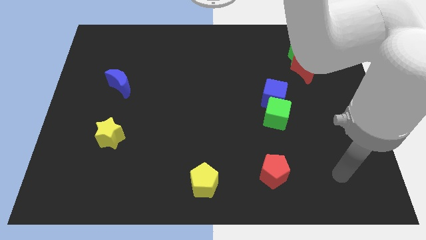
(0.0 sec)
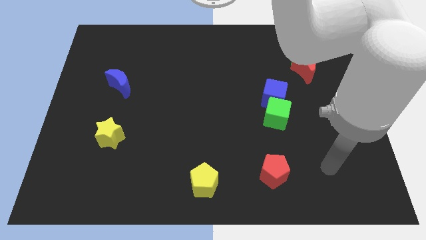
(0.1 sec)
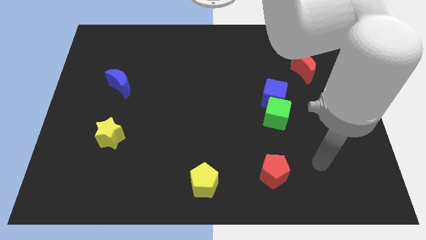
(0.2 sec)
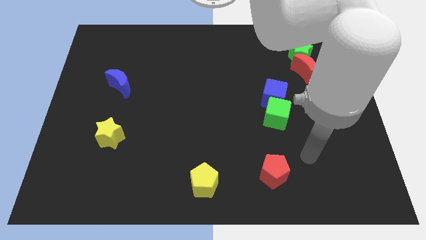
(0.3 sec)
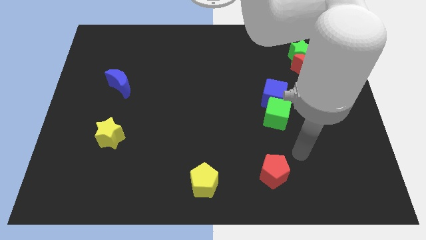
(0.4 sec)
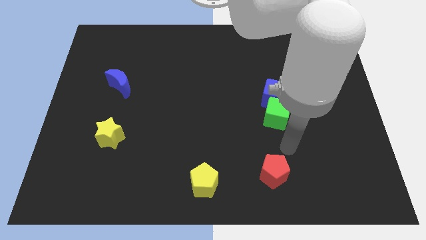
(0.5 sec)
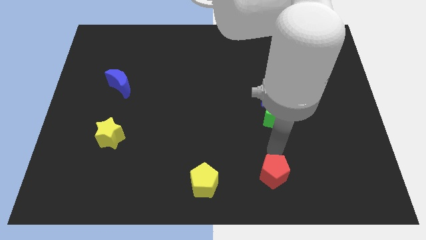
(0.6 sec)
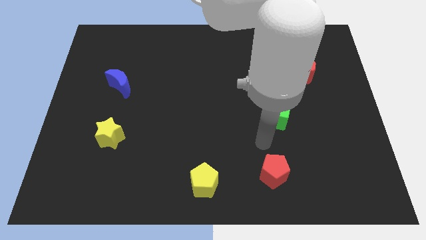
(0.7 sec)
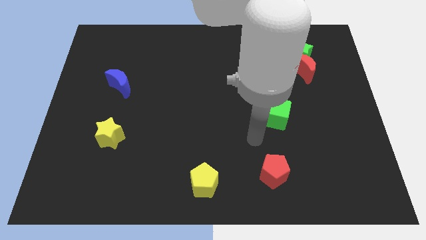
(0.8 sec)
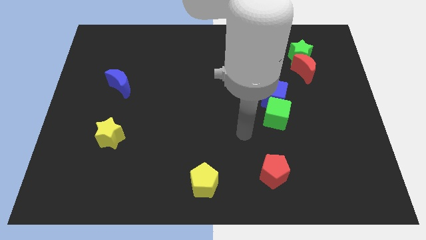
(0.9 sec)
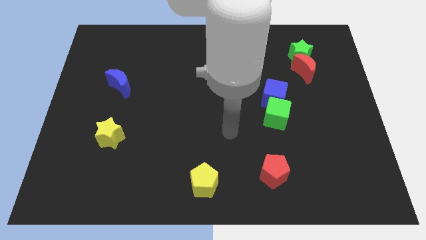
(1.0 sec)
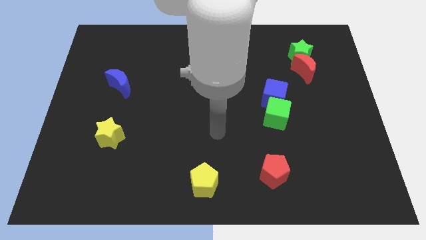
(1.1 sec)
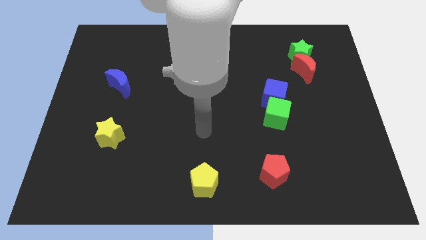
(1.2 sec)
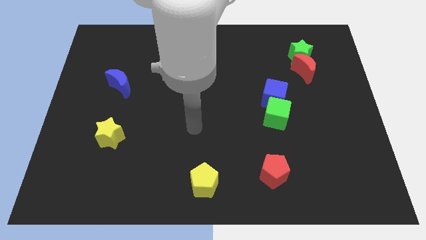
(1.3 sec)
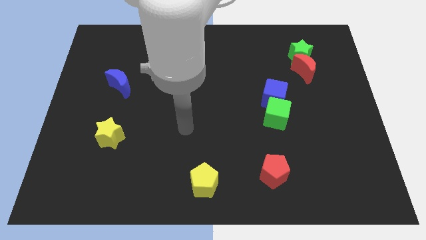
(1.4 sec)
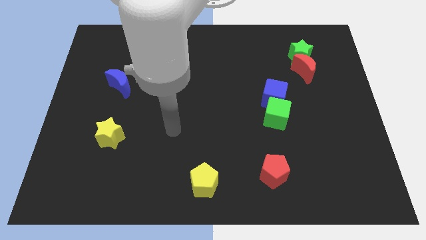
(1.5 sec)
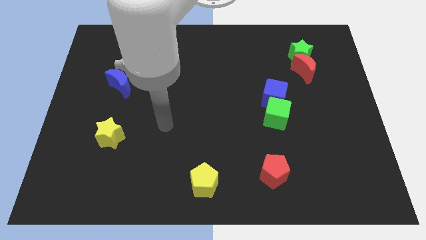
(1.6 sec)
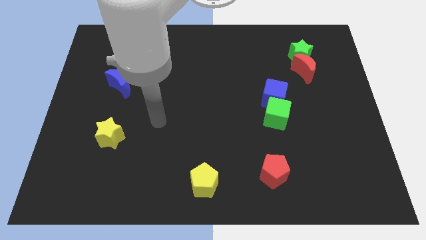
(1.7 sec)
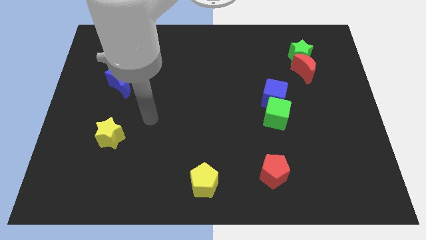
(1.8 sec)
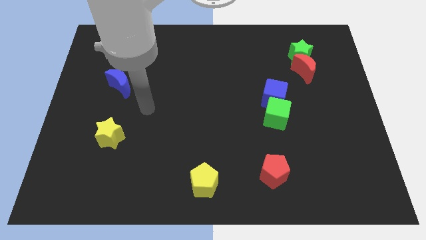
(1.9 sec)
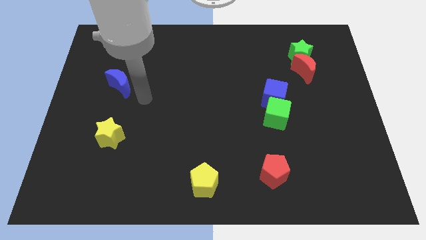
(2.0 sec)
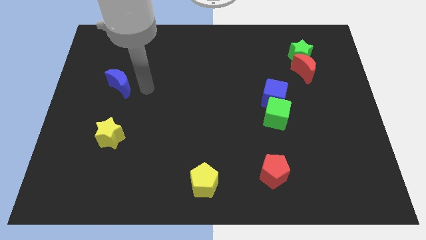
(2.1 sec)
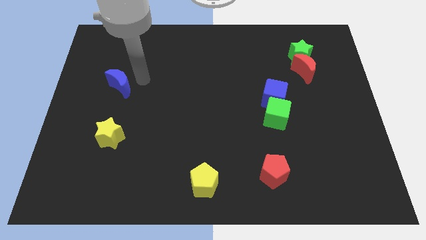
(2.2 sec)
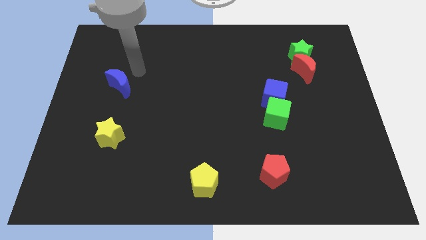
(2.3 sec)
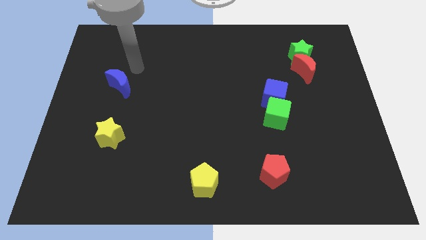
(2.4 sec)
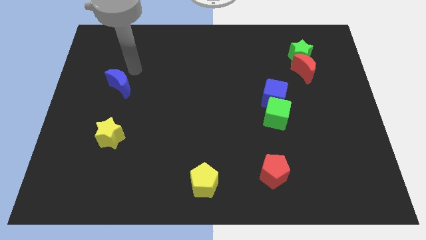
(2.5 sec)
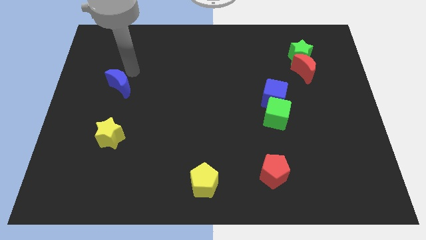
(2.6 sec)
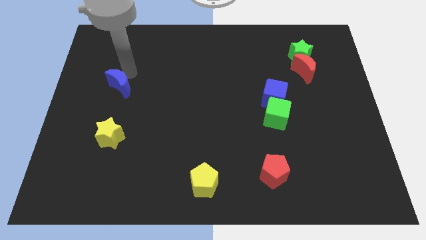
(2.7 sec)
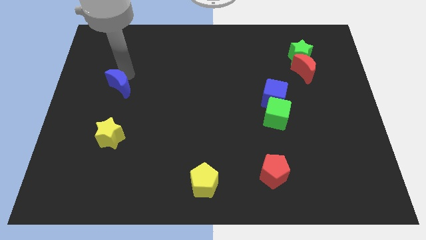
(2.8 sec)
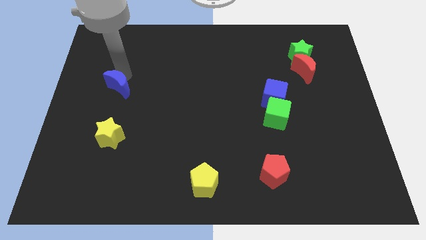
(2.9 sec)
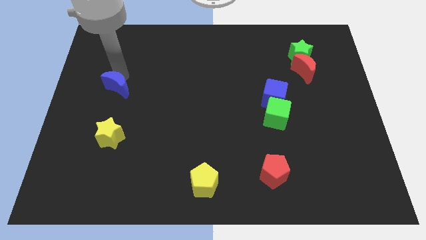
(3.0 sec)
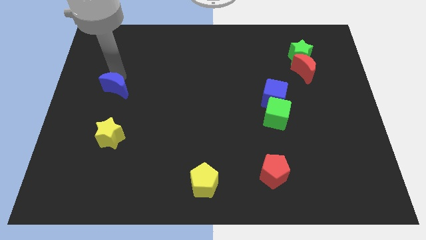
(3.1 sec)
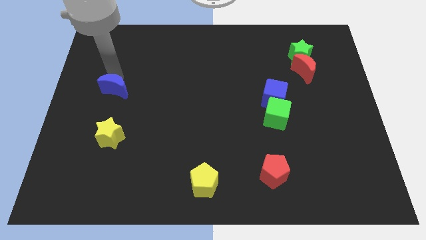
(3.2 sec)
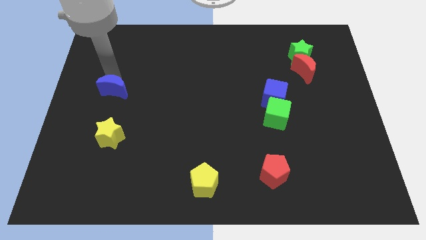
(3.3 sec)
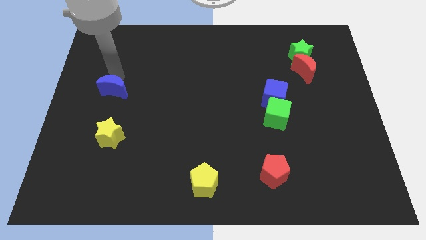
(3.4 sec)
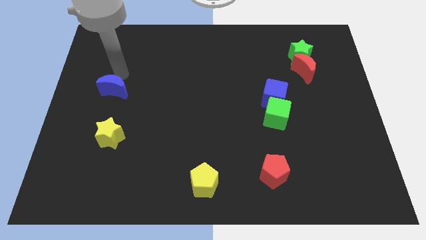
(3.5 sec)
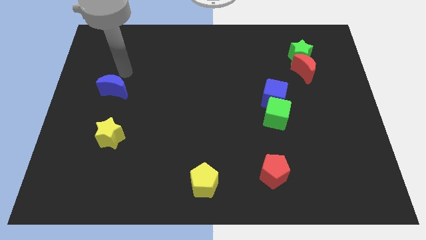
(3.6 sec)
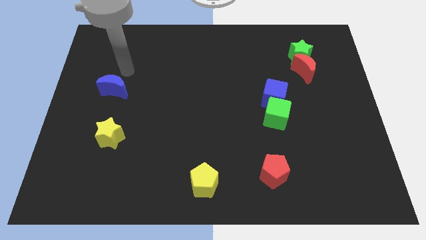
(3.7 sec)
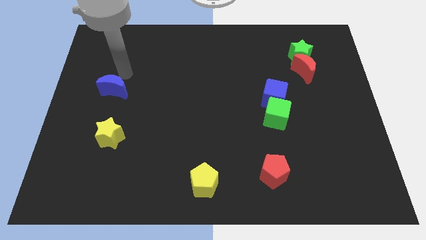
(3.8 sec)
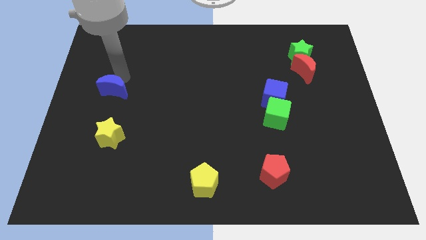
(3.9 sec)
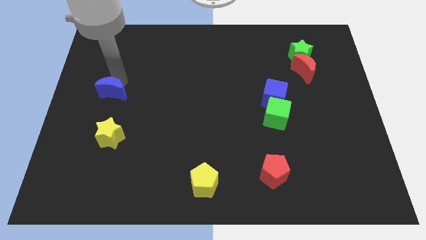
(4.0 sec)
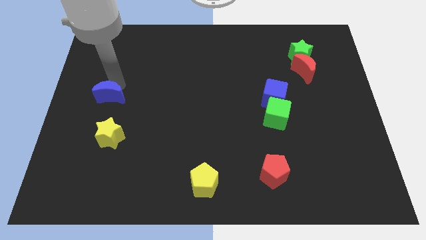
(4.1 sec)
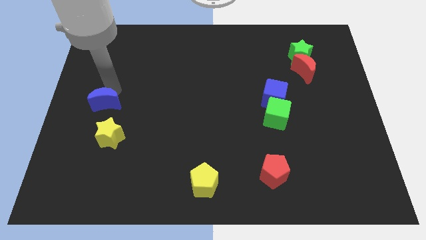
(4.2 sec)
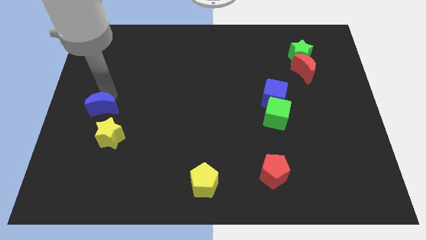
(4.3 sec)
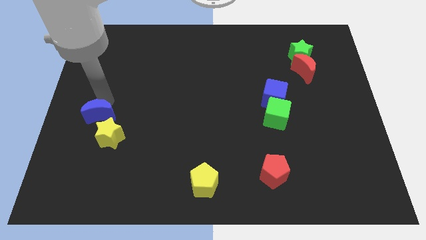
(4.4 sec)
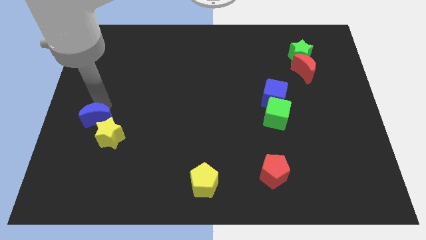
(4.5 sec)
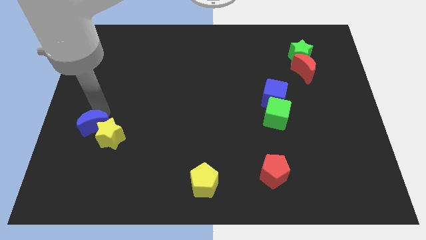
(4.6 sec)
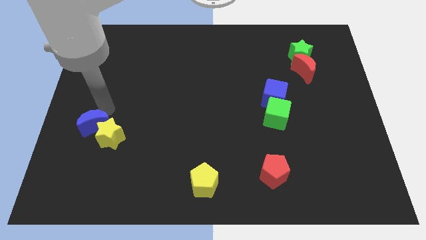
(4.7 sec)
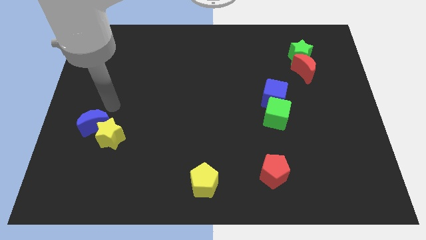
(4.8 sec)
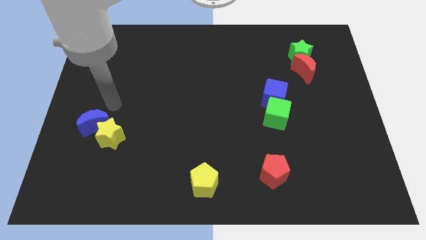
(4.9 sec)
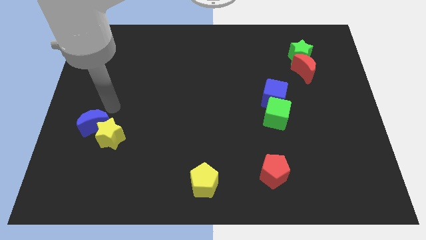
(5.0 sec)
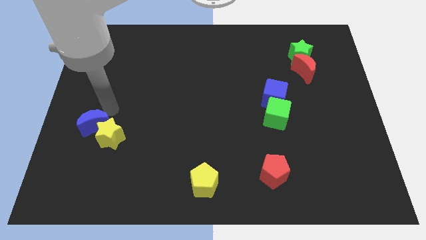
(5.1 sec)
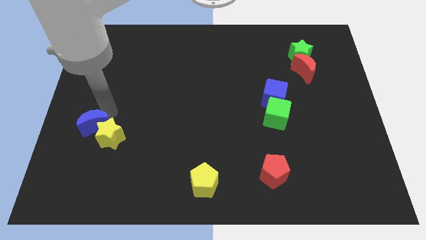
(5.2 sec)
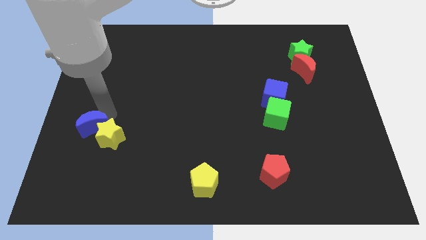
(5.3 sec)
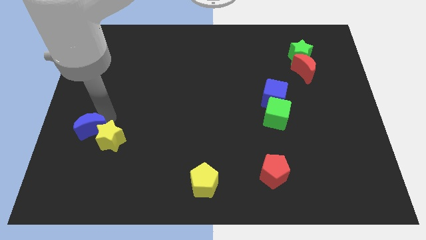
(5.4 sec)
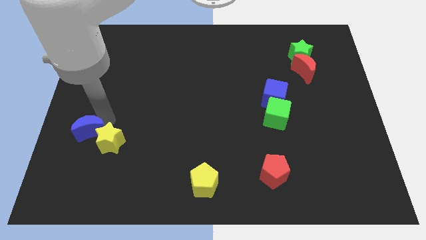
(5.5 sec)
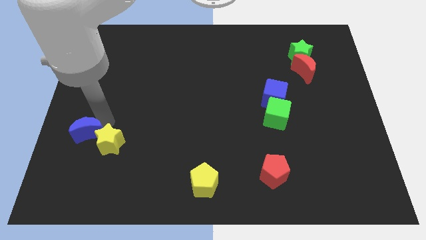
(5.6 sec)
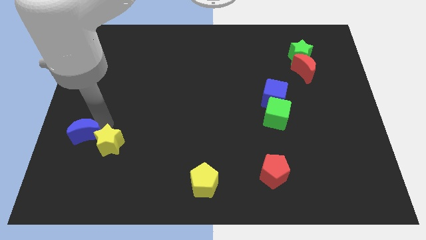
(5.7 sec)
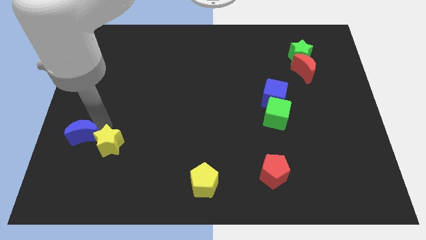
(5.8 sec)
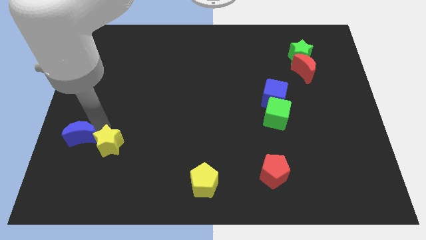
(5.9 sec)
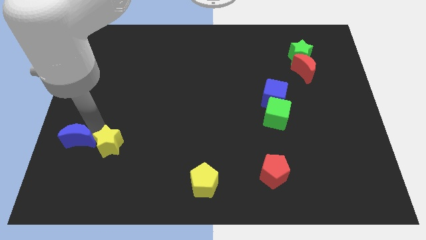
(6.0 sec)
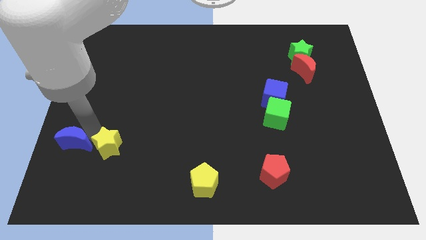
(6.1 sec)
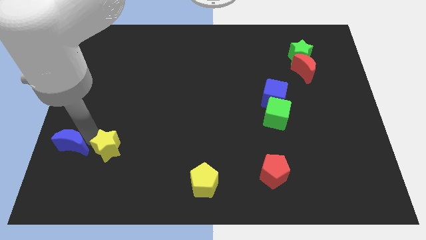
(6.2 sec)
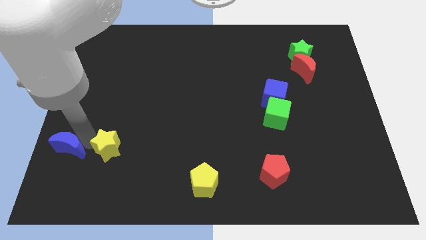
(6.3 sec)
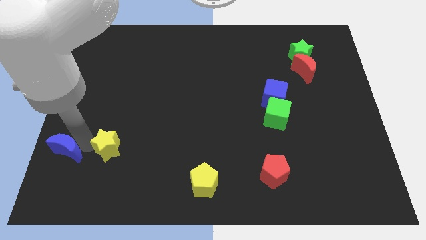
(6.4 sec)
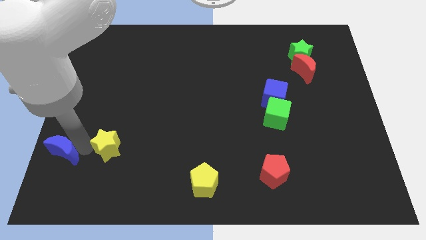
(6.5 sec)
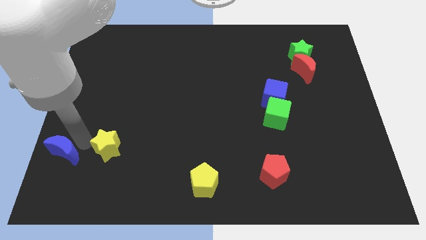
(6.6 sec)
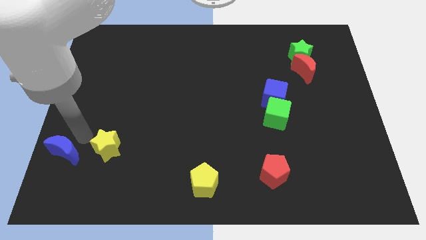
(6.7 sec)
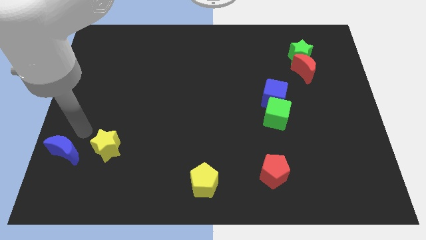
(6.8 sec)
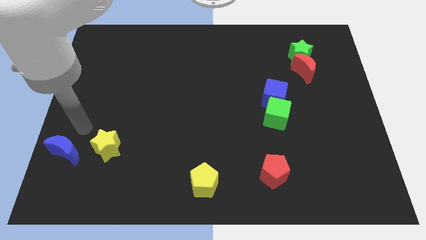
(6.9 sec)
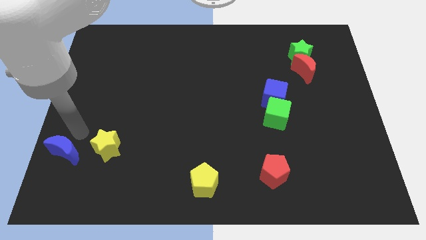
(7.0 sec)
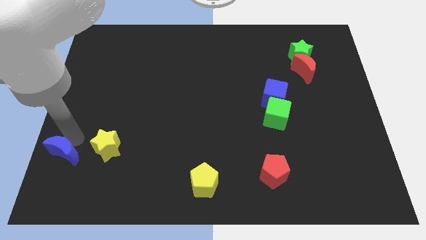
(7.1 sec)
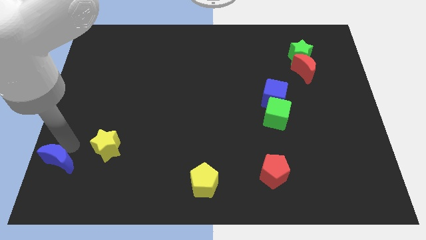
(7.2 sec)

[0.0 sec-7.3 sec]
put the blue moon to the lower left corner
